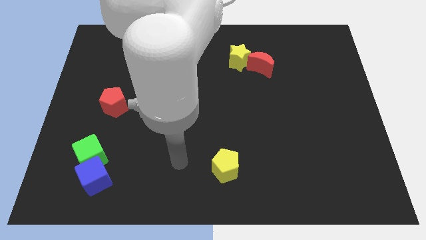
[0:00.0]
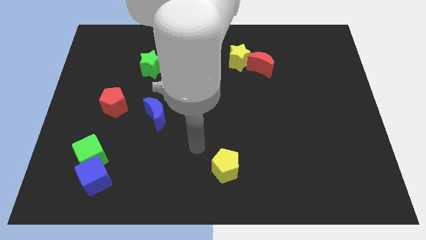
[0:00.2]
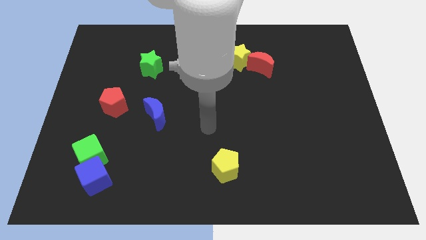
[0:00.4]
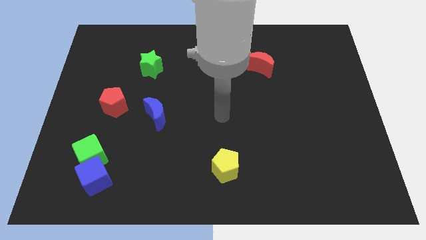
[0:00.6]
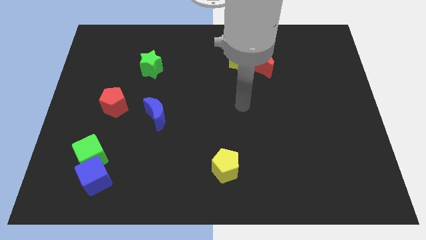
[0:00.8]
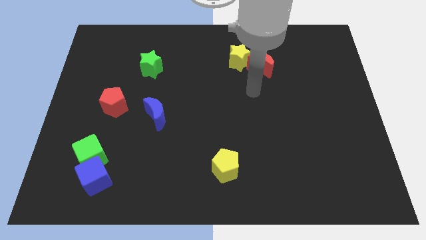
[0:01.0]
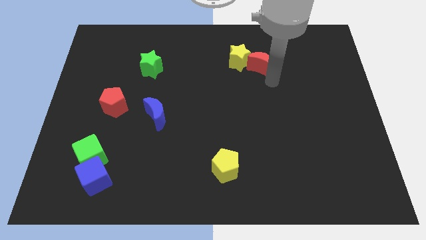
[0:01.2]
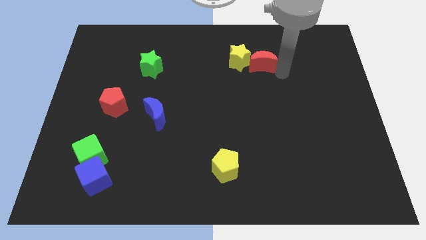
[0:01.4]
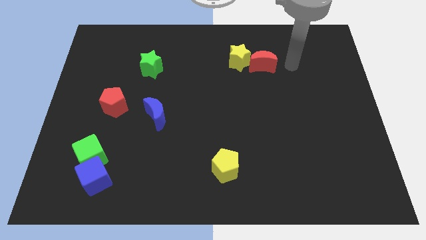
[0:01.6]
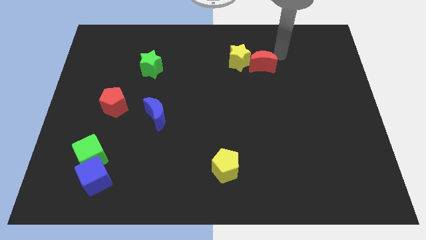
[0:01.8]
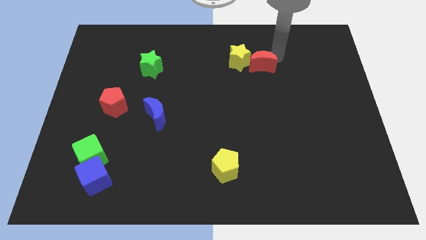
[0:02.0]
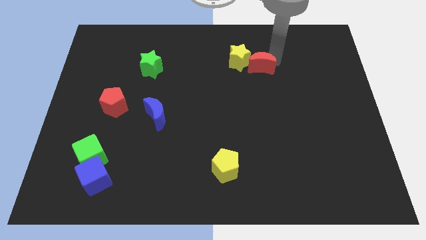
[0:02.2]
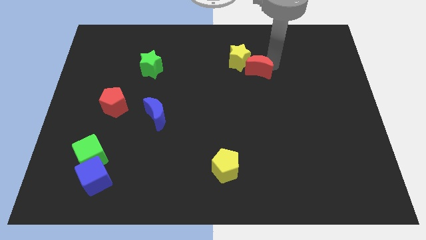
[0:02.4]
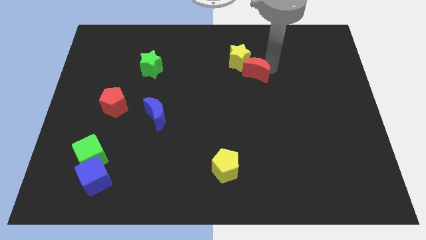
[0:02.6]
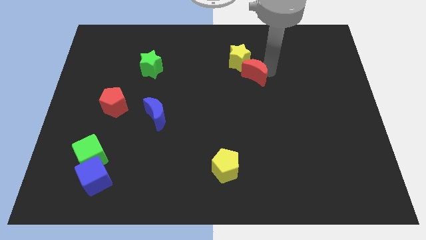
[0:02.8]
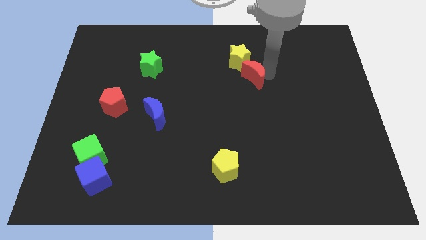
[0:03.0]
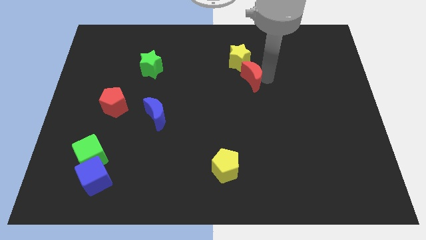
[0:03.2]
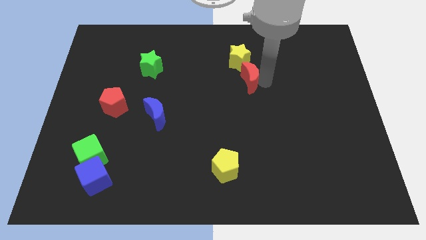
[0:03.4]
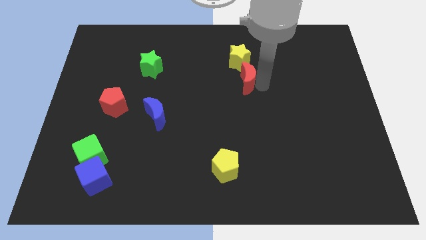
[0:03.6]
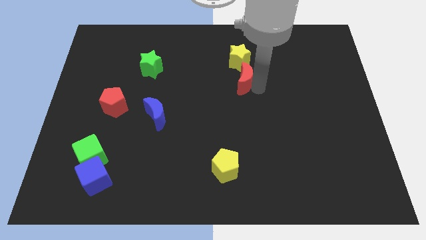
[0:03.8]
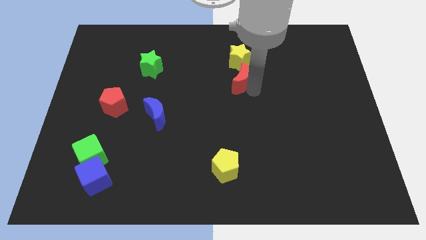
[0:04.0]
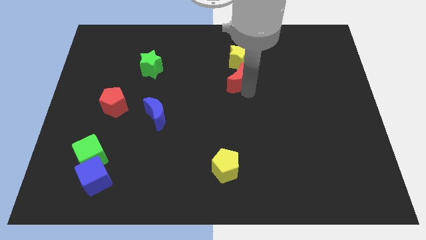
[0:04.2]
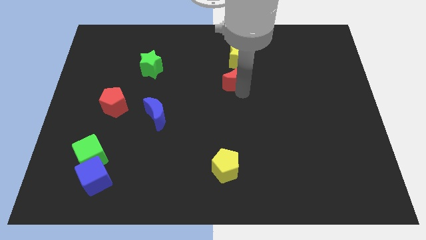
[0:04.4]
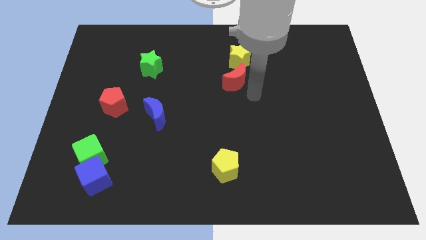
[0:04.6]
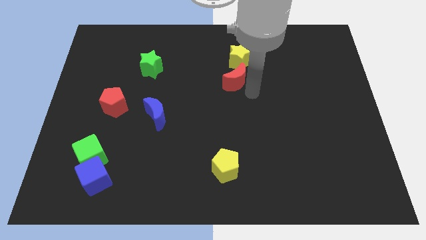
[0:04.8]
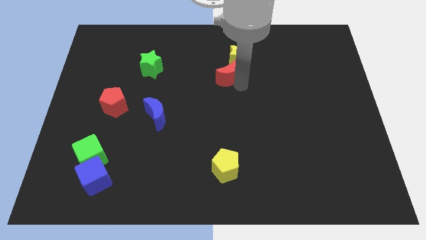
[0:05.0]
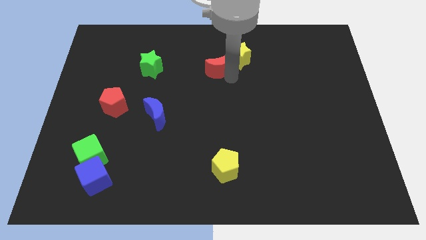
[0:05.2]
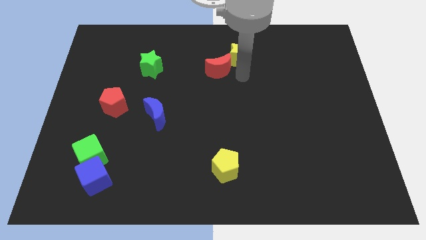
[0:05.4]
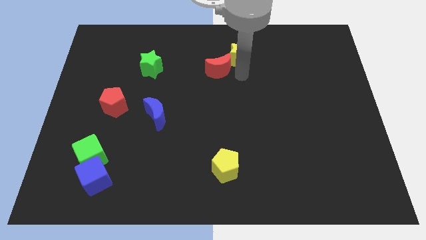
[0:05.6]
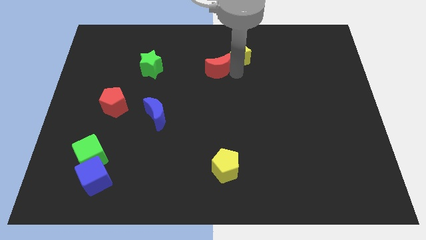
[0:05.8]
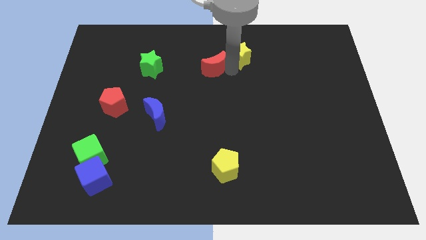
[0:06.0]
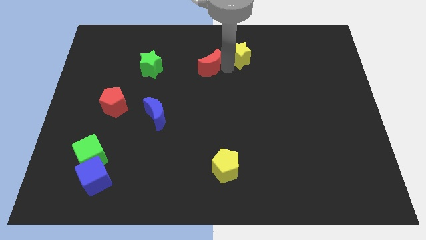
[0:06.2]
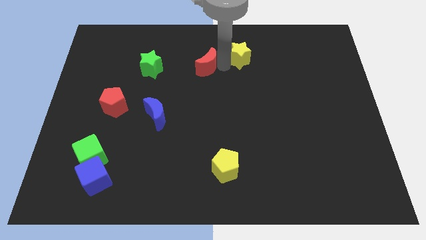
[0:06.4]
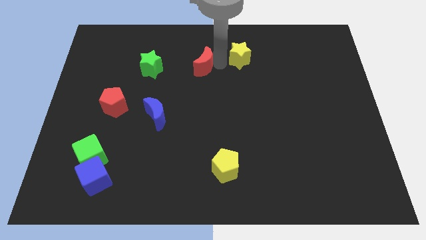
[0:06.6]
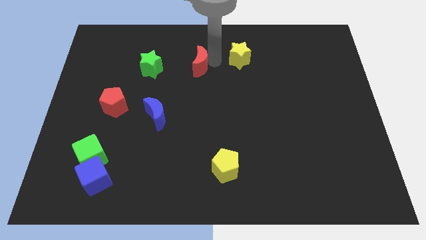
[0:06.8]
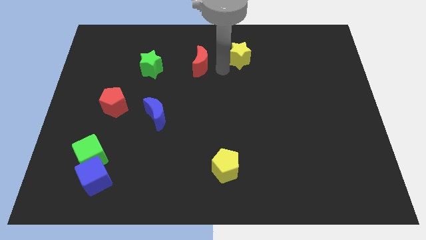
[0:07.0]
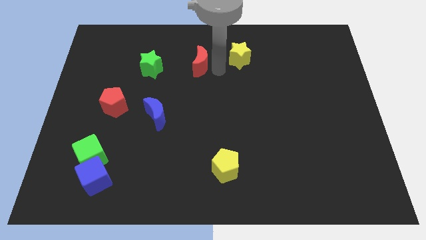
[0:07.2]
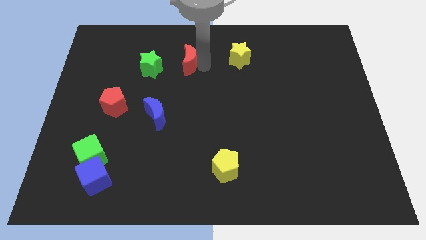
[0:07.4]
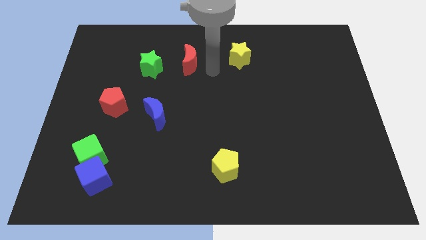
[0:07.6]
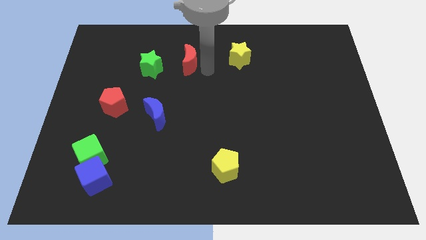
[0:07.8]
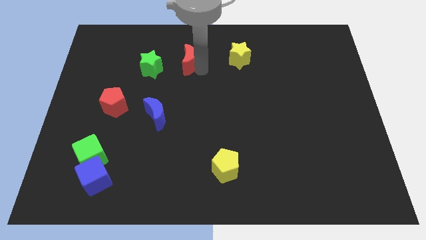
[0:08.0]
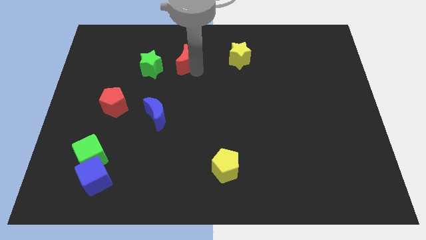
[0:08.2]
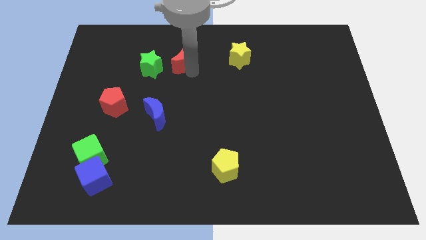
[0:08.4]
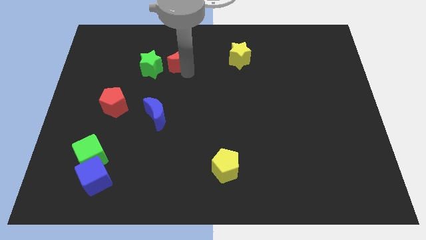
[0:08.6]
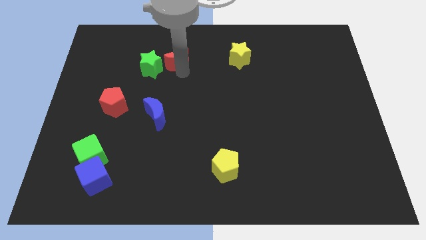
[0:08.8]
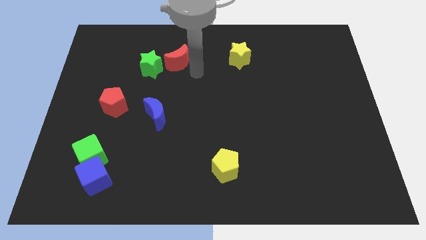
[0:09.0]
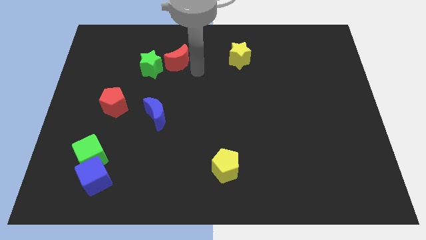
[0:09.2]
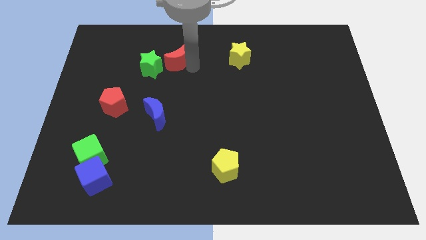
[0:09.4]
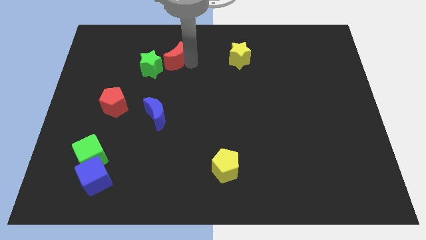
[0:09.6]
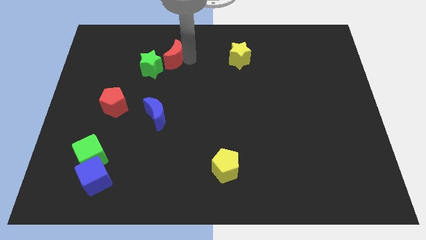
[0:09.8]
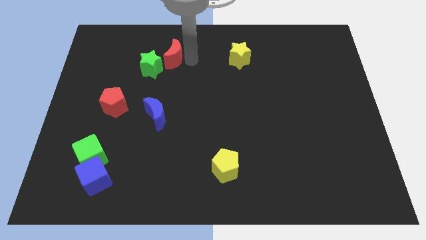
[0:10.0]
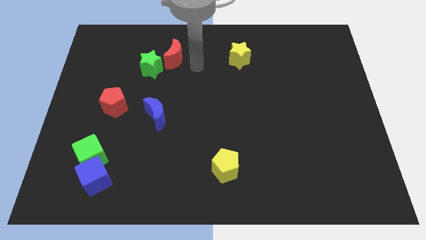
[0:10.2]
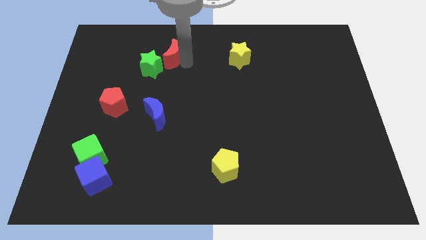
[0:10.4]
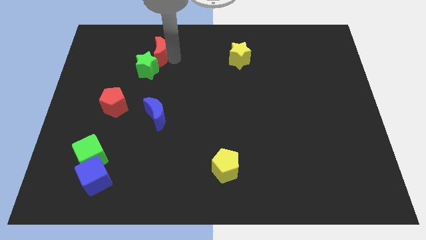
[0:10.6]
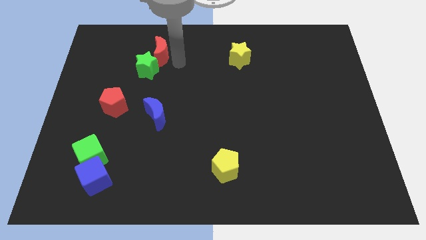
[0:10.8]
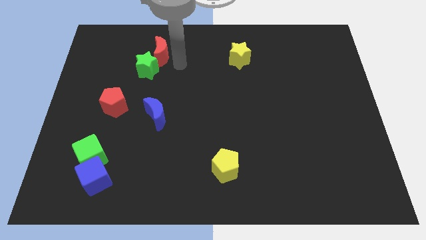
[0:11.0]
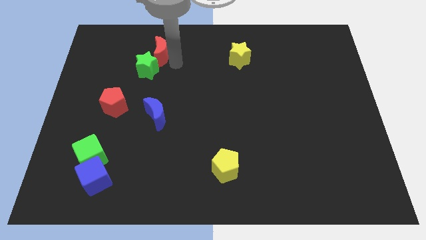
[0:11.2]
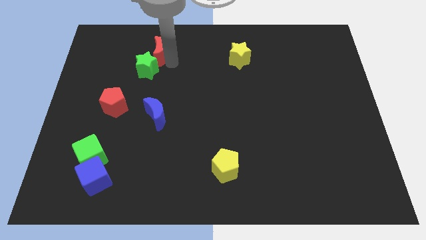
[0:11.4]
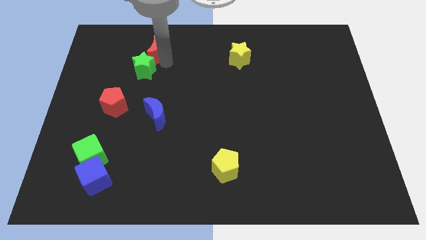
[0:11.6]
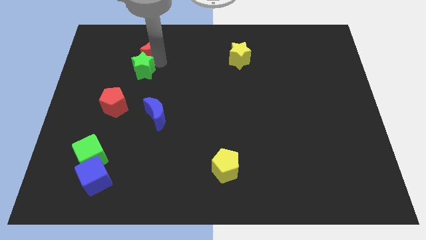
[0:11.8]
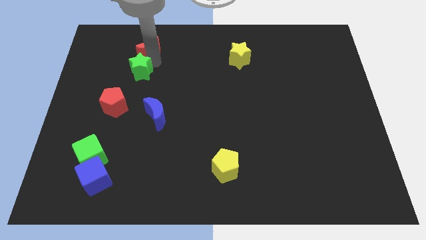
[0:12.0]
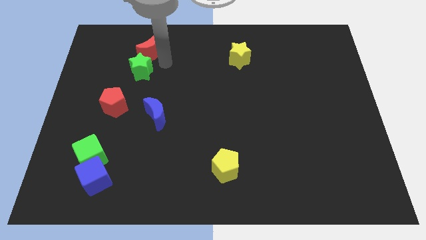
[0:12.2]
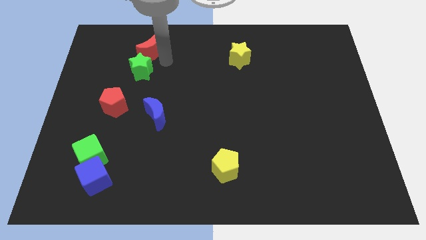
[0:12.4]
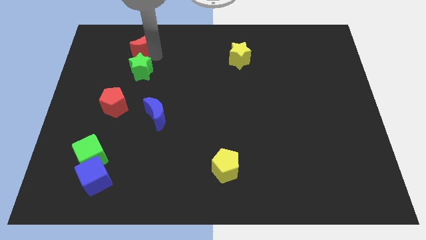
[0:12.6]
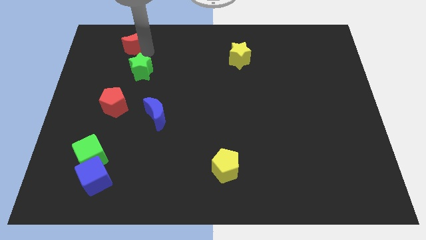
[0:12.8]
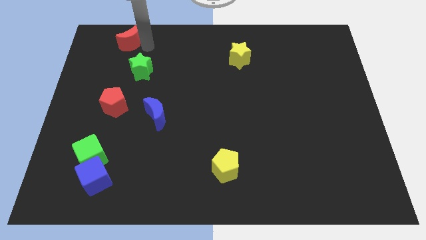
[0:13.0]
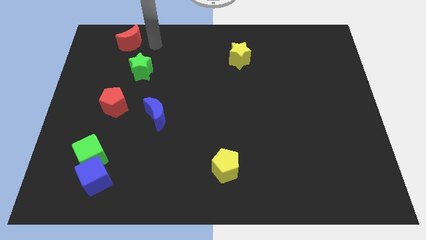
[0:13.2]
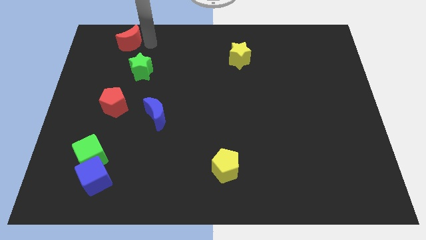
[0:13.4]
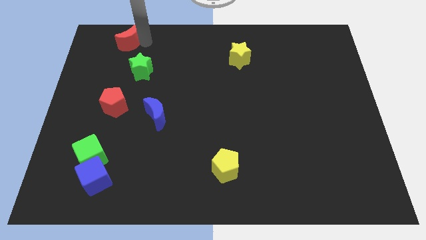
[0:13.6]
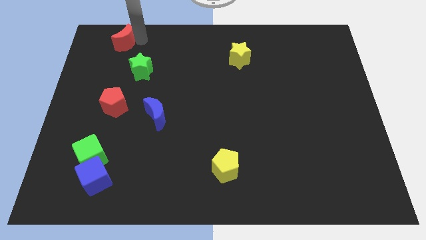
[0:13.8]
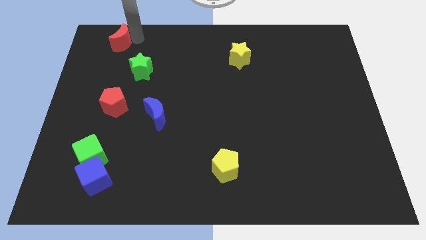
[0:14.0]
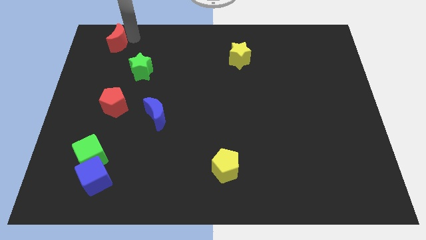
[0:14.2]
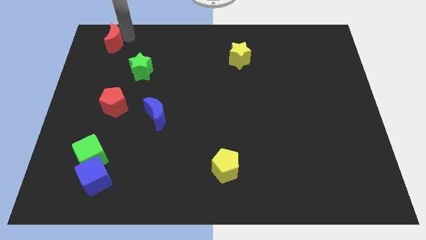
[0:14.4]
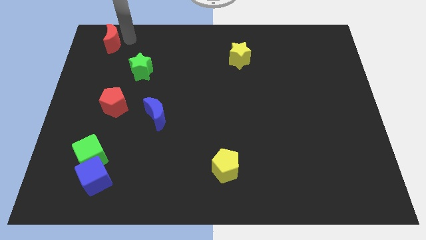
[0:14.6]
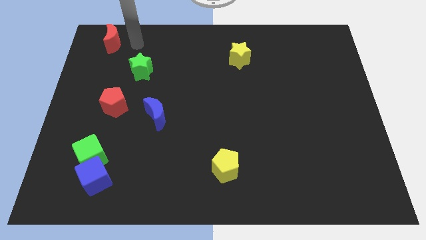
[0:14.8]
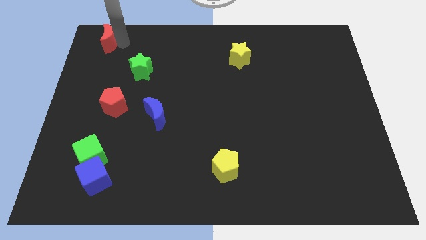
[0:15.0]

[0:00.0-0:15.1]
put the red moon to the top left of the board
